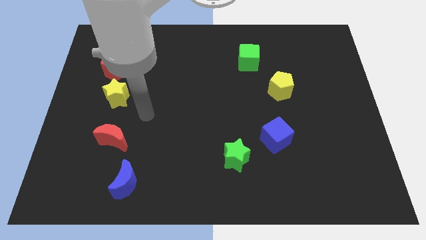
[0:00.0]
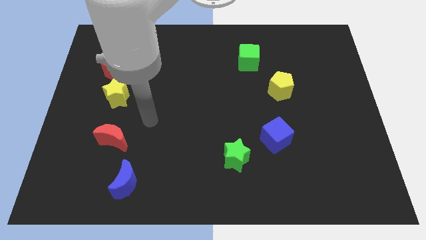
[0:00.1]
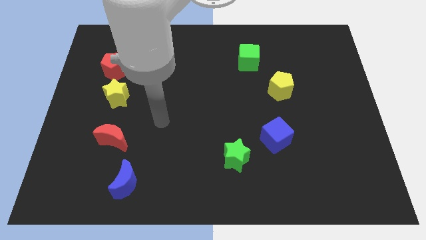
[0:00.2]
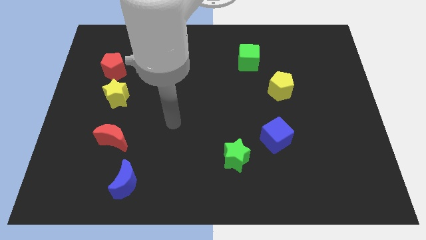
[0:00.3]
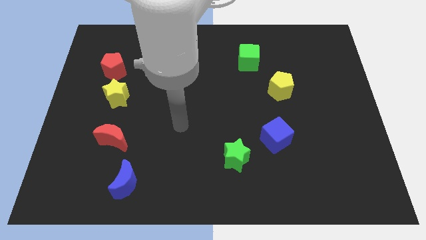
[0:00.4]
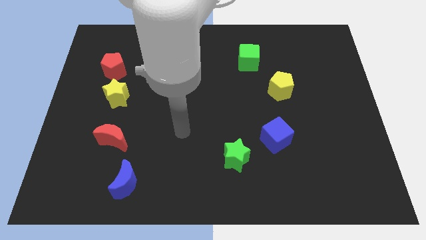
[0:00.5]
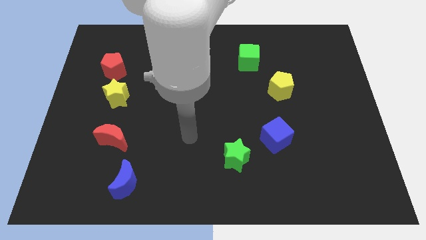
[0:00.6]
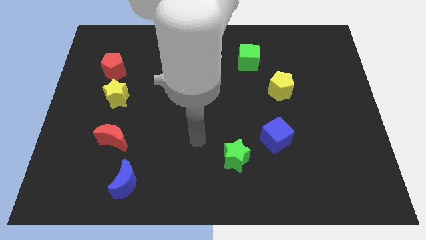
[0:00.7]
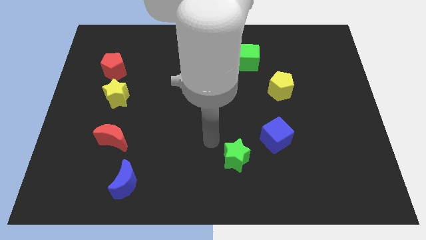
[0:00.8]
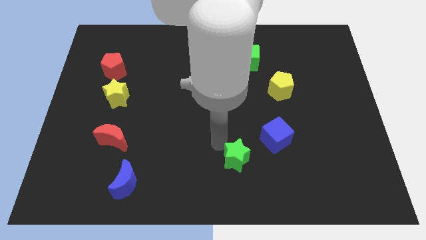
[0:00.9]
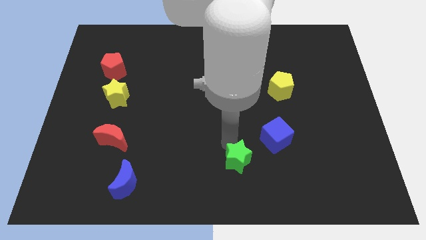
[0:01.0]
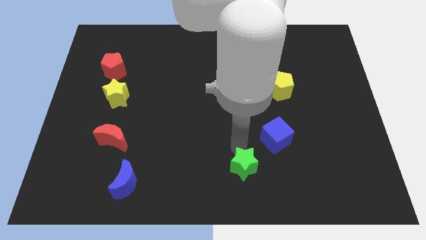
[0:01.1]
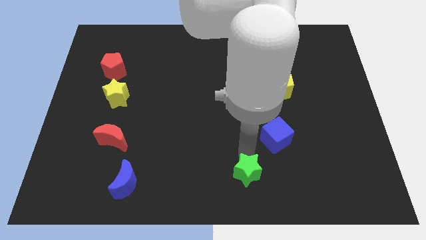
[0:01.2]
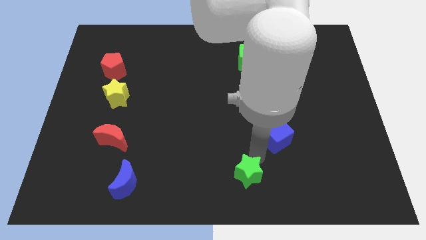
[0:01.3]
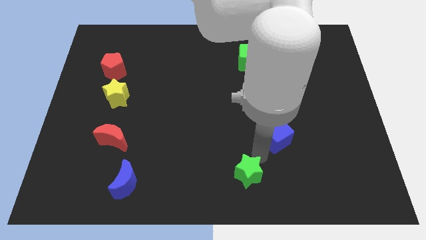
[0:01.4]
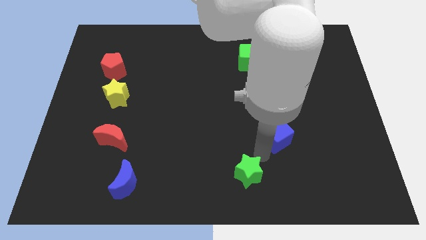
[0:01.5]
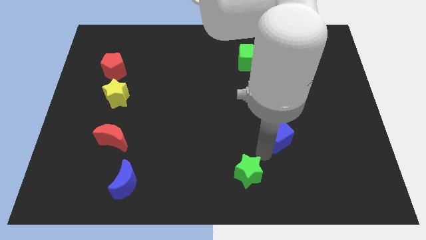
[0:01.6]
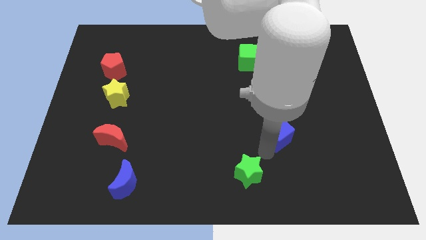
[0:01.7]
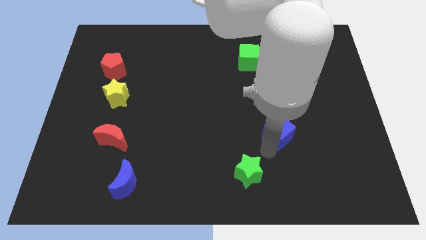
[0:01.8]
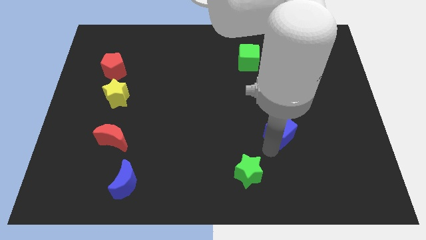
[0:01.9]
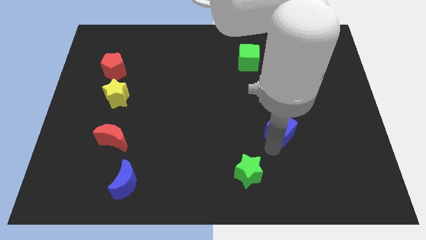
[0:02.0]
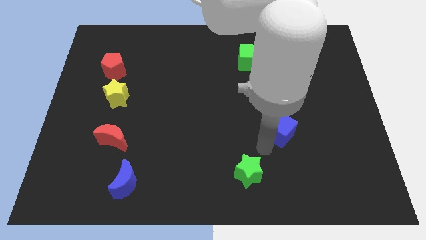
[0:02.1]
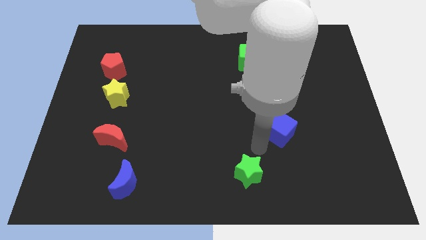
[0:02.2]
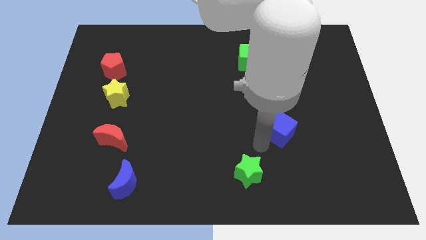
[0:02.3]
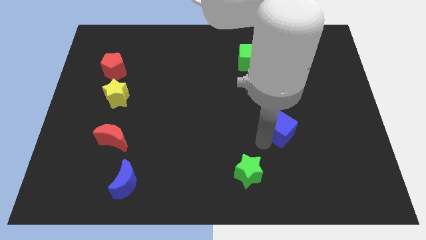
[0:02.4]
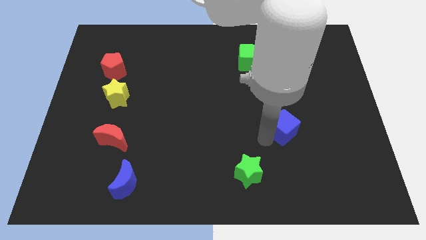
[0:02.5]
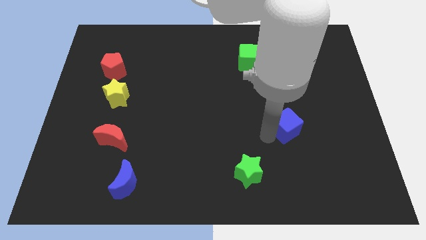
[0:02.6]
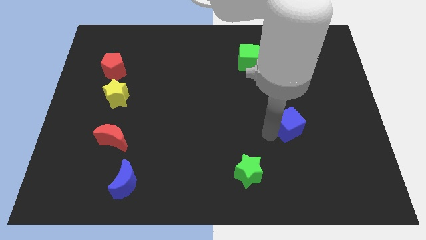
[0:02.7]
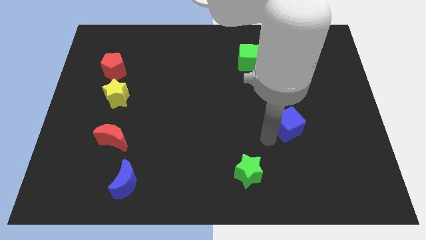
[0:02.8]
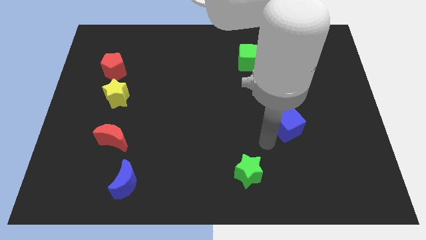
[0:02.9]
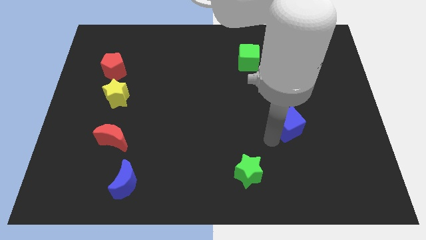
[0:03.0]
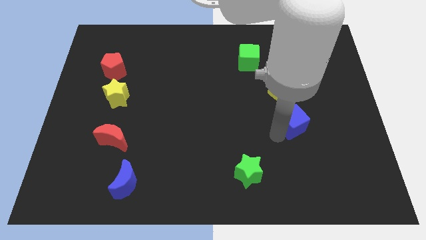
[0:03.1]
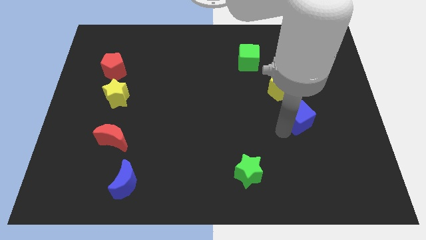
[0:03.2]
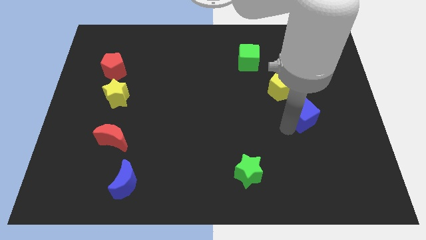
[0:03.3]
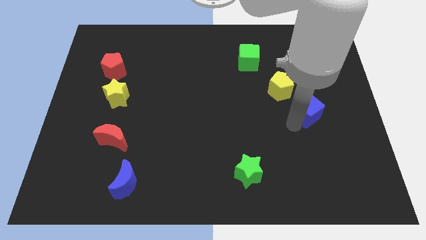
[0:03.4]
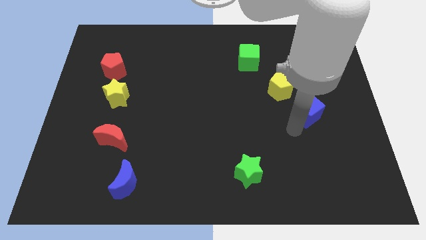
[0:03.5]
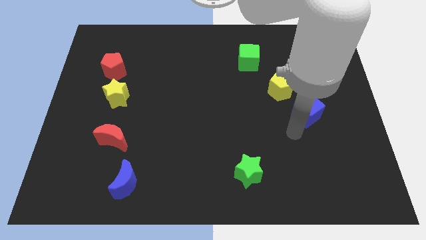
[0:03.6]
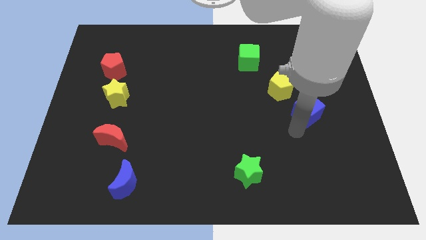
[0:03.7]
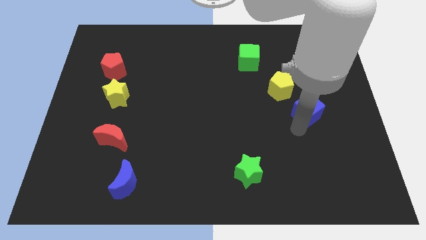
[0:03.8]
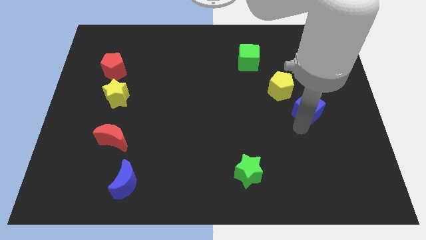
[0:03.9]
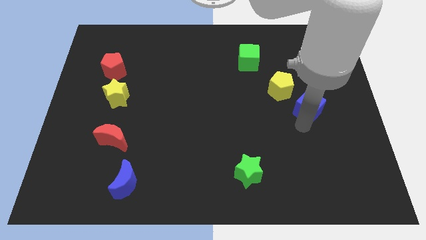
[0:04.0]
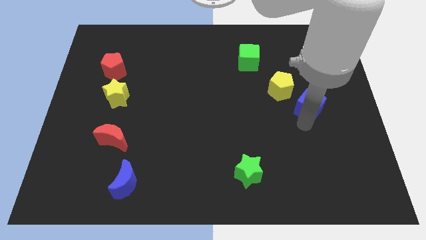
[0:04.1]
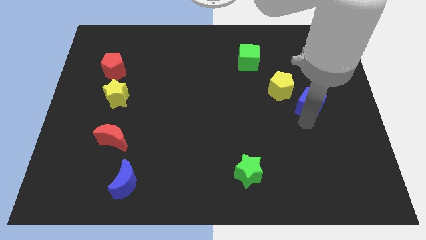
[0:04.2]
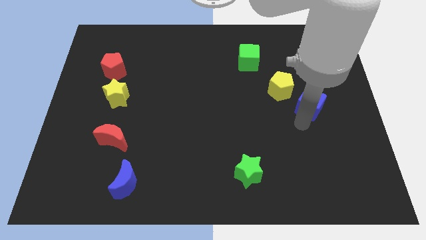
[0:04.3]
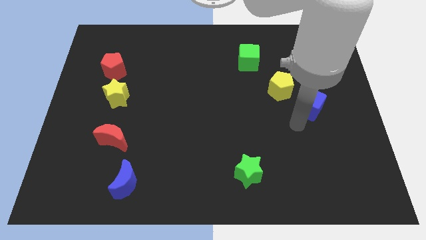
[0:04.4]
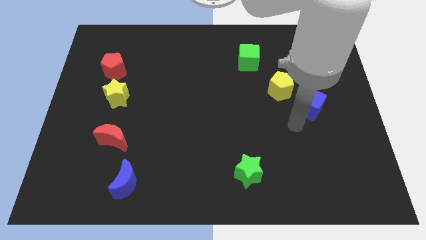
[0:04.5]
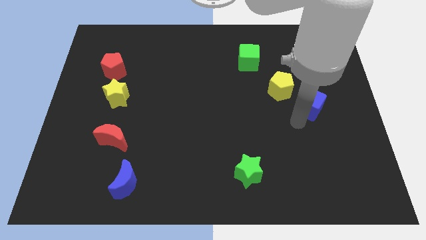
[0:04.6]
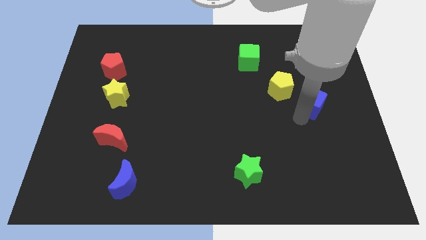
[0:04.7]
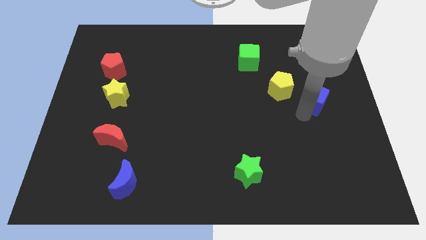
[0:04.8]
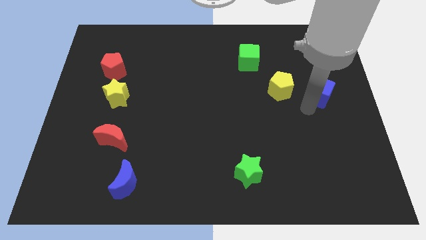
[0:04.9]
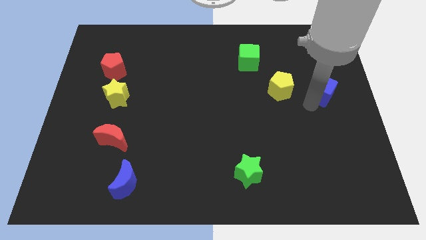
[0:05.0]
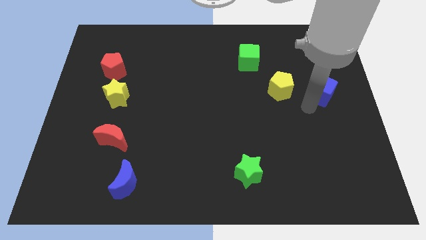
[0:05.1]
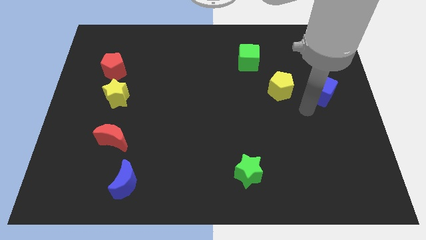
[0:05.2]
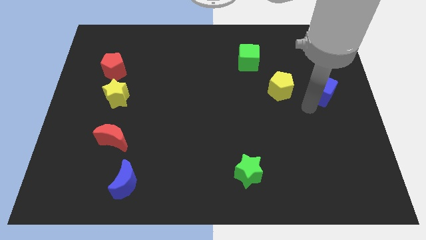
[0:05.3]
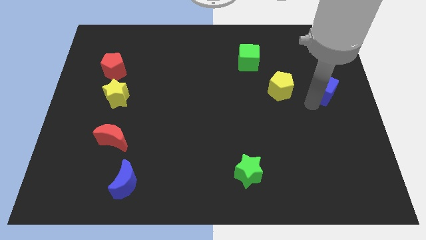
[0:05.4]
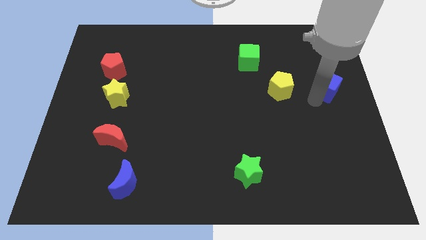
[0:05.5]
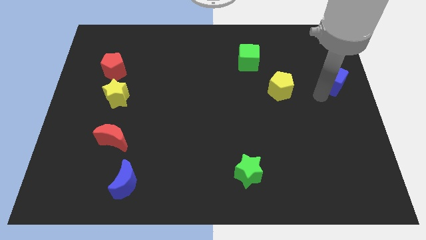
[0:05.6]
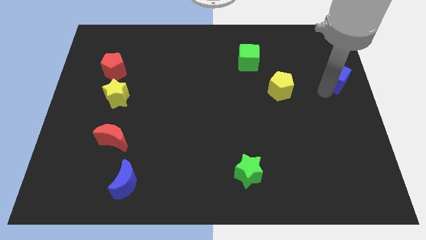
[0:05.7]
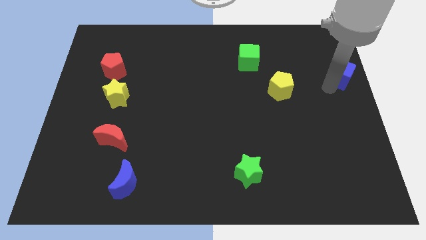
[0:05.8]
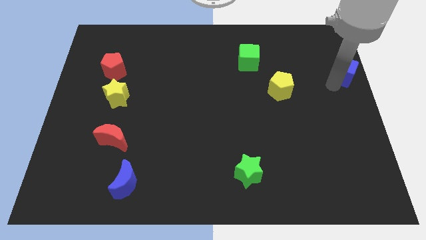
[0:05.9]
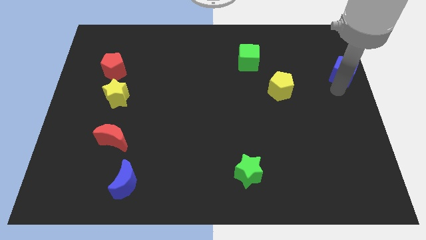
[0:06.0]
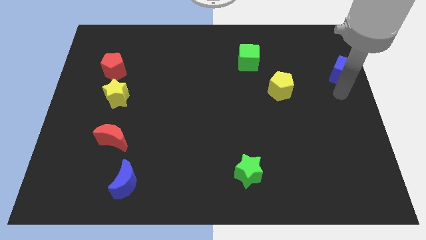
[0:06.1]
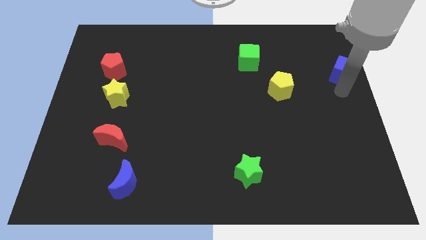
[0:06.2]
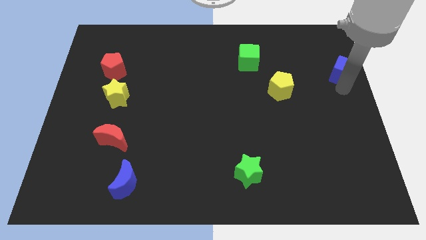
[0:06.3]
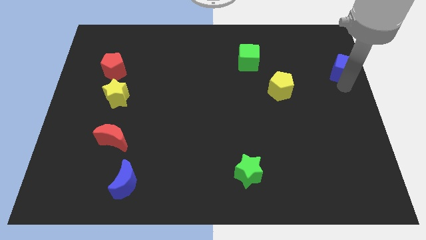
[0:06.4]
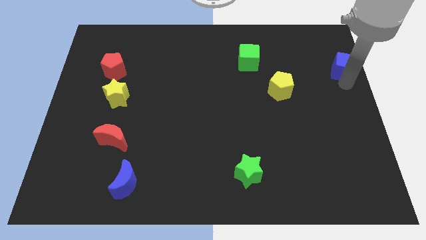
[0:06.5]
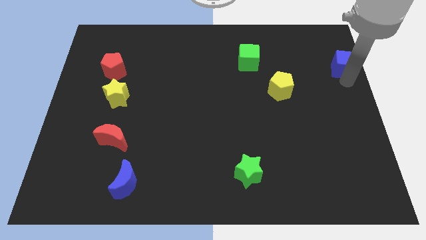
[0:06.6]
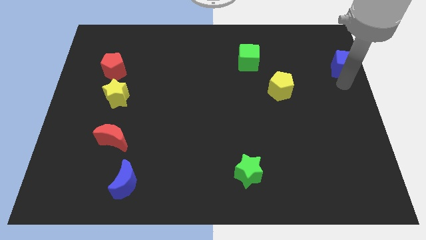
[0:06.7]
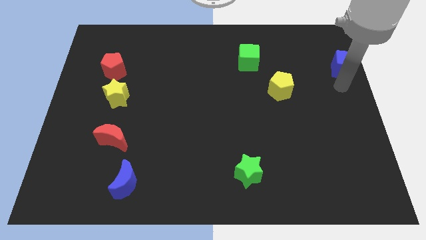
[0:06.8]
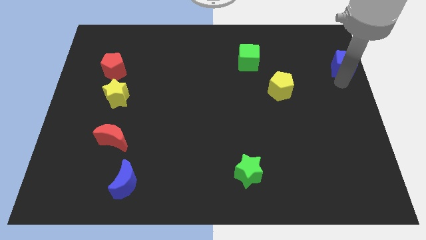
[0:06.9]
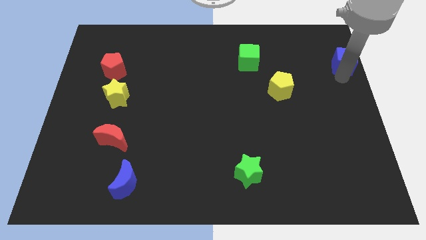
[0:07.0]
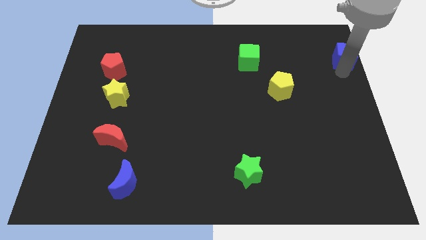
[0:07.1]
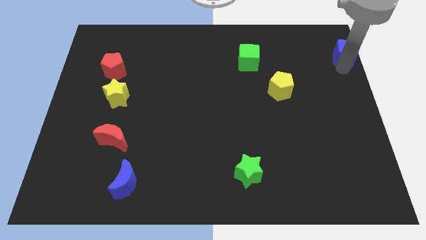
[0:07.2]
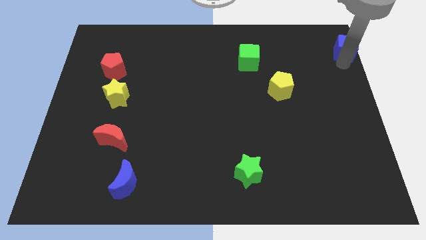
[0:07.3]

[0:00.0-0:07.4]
push the blue cube to the top right

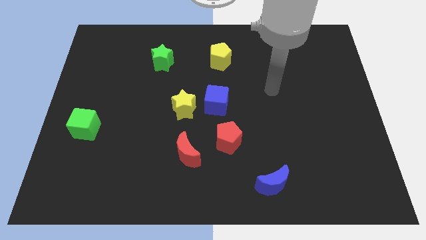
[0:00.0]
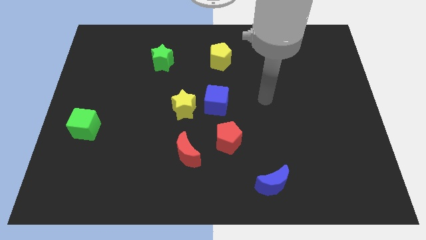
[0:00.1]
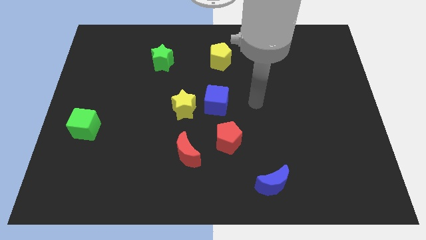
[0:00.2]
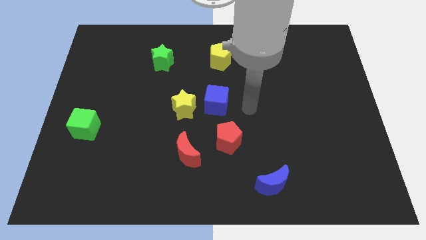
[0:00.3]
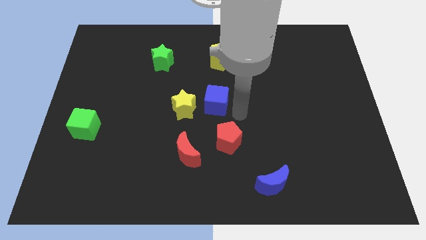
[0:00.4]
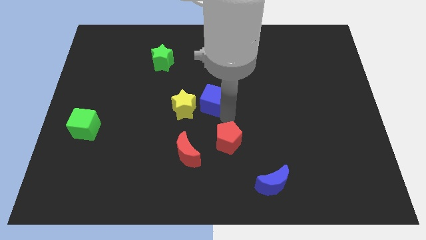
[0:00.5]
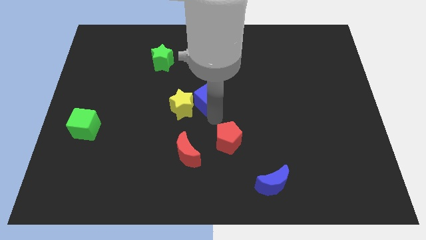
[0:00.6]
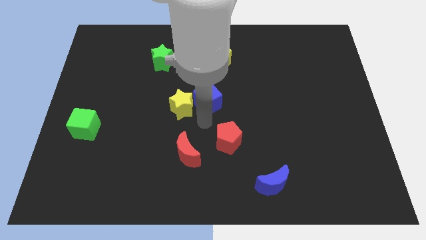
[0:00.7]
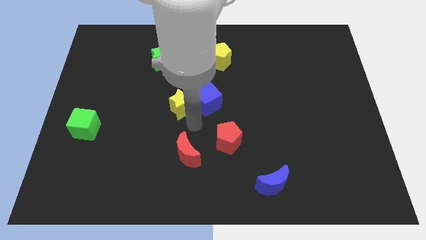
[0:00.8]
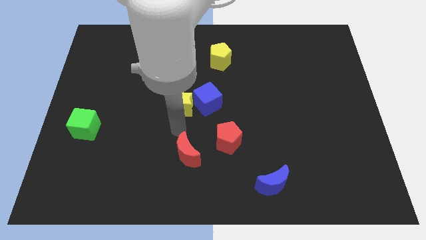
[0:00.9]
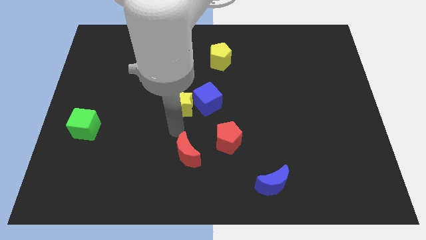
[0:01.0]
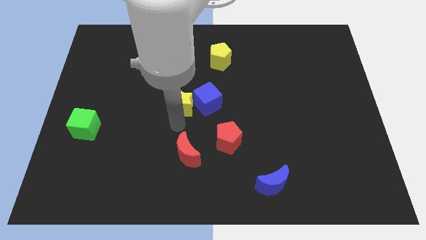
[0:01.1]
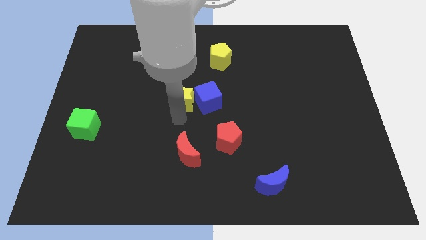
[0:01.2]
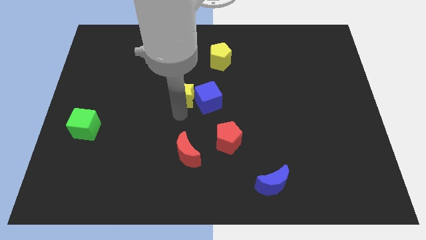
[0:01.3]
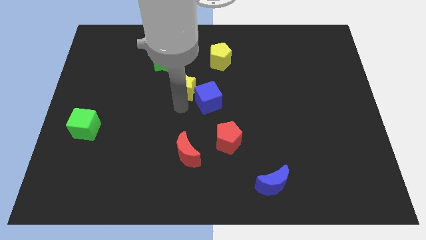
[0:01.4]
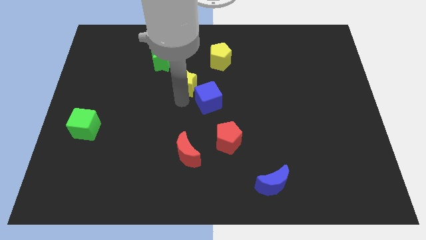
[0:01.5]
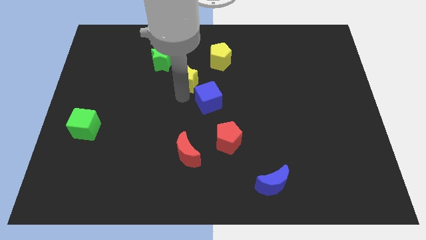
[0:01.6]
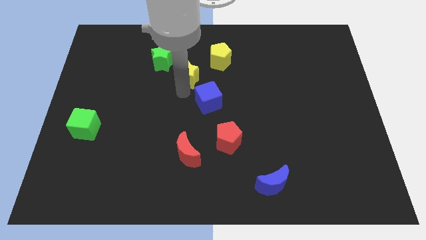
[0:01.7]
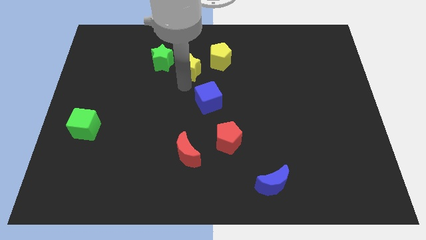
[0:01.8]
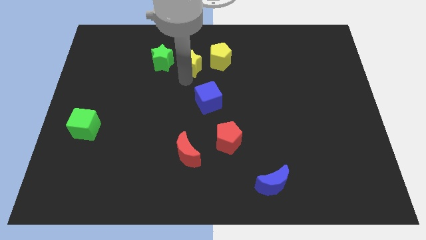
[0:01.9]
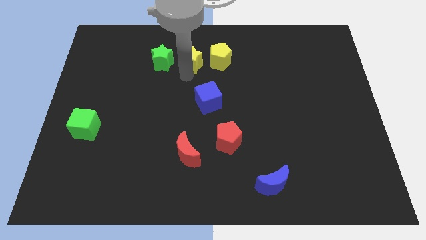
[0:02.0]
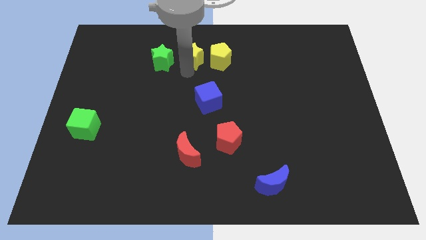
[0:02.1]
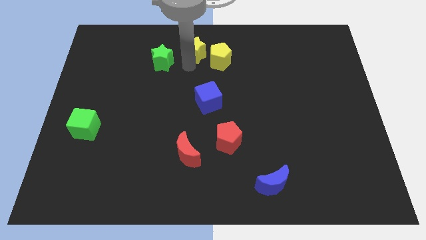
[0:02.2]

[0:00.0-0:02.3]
move the yellow star to the top side
